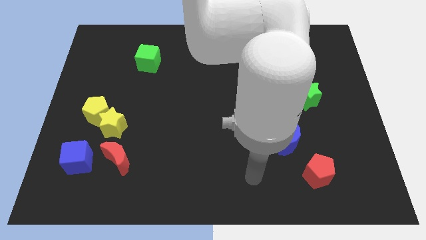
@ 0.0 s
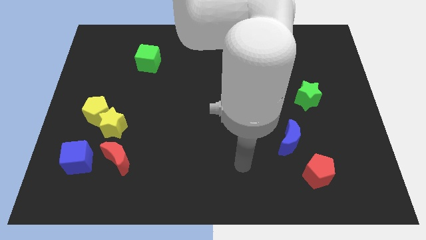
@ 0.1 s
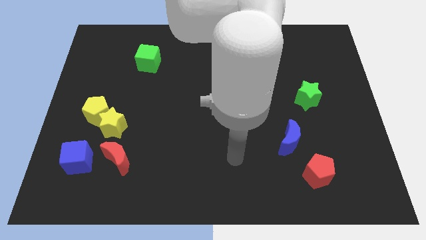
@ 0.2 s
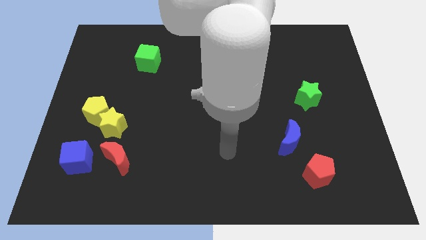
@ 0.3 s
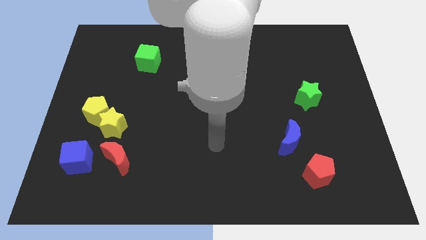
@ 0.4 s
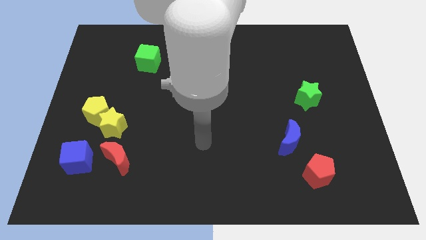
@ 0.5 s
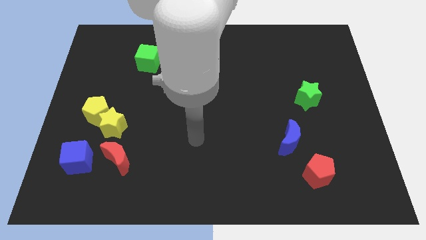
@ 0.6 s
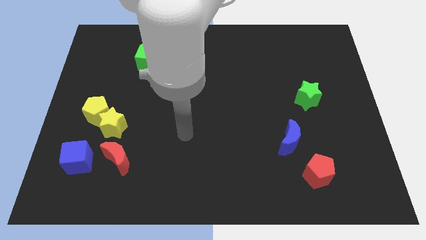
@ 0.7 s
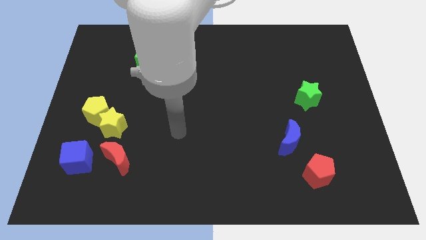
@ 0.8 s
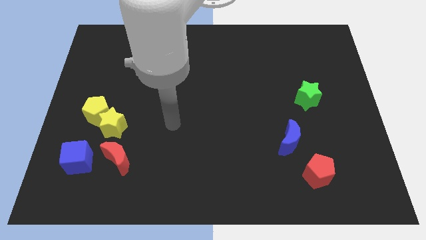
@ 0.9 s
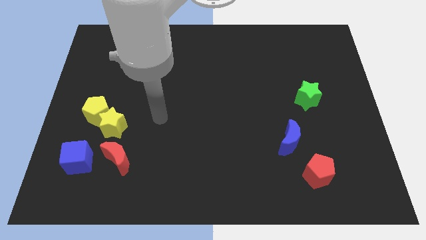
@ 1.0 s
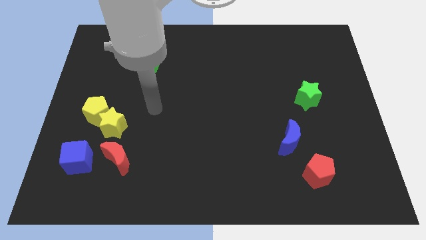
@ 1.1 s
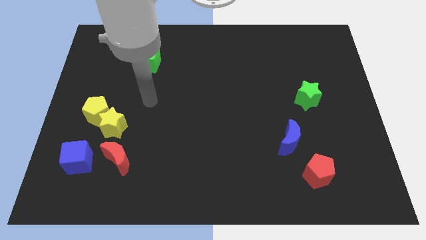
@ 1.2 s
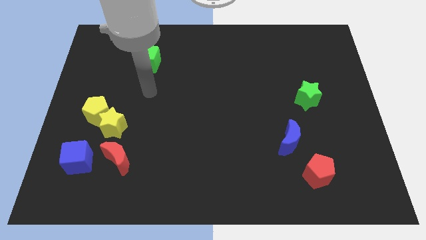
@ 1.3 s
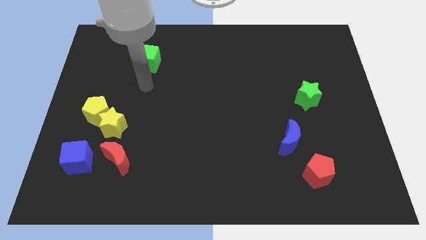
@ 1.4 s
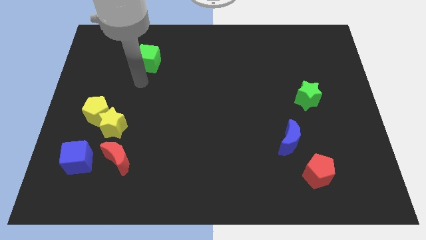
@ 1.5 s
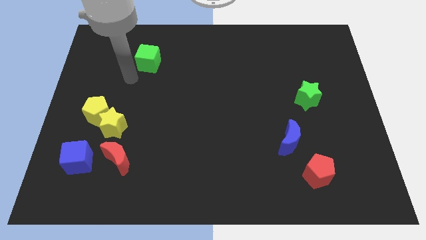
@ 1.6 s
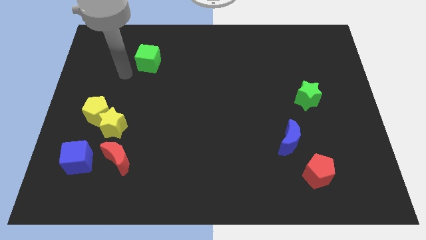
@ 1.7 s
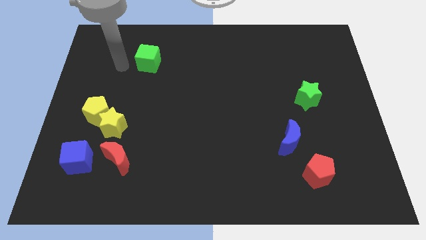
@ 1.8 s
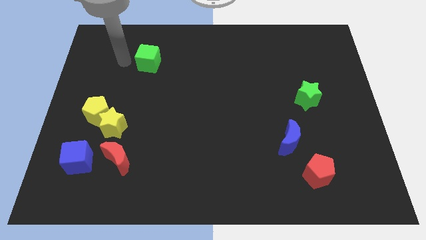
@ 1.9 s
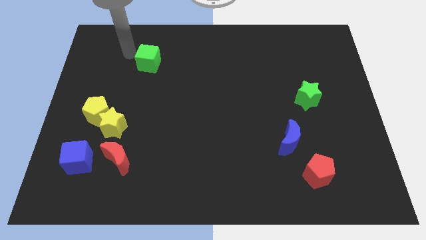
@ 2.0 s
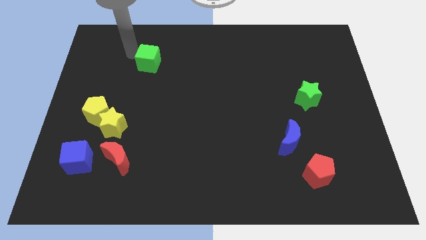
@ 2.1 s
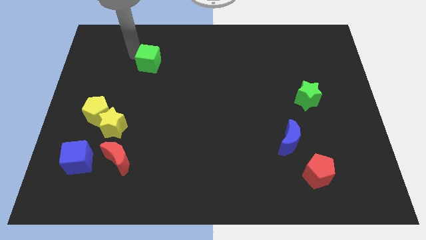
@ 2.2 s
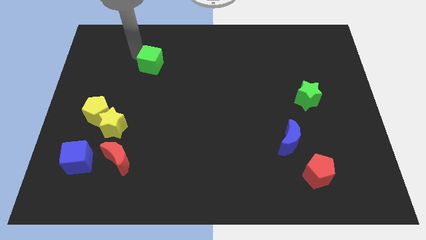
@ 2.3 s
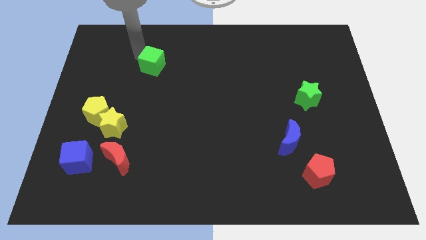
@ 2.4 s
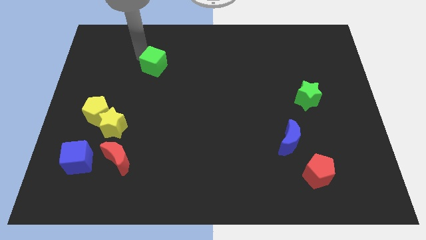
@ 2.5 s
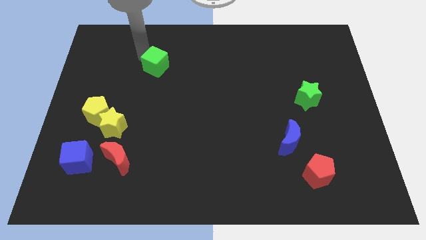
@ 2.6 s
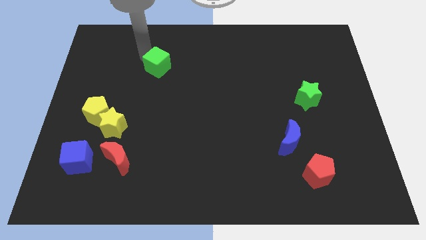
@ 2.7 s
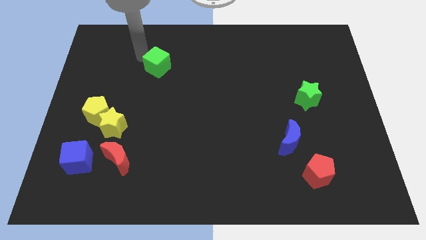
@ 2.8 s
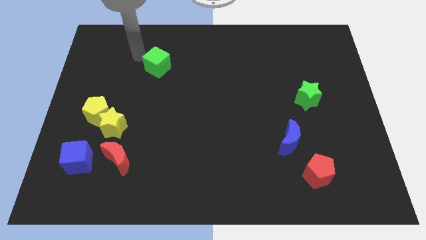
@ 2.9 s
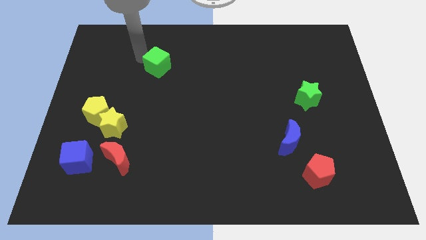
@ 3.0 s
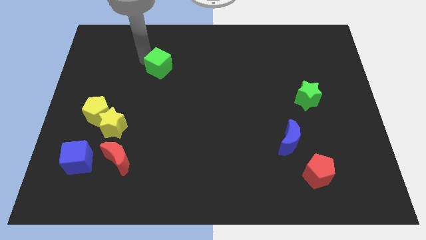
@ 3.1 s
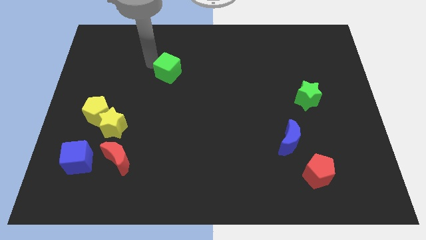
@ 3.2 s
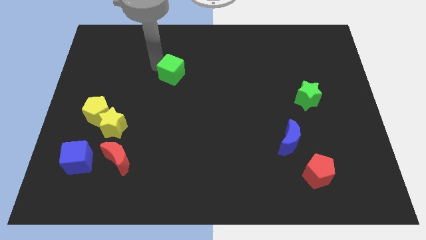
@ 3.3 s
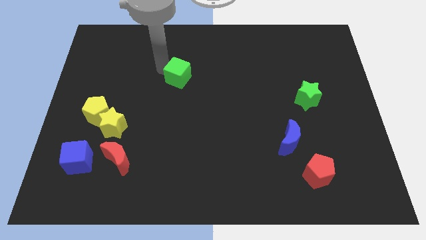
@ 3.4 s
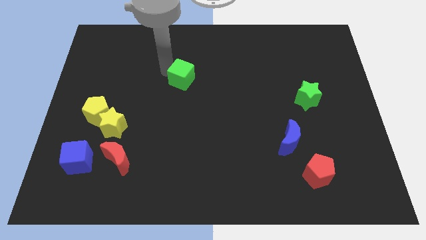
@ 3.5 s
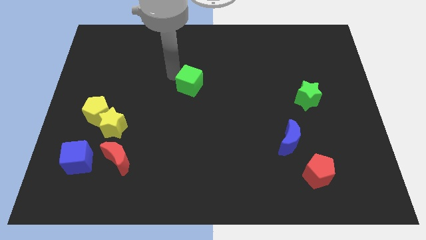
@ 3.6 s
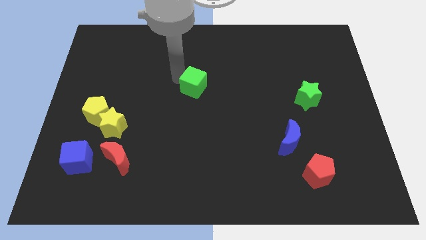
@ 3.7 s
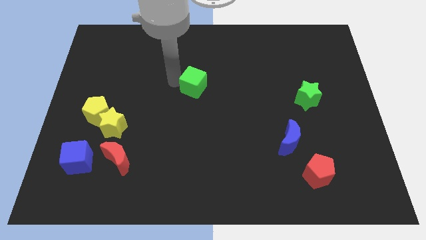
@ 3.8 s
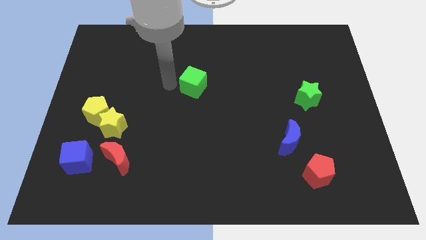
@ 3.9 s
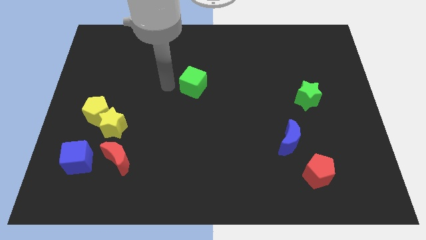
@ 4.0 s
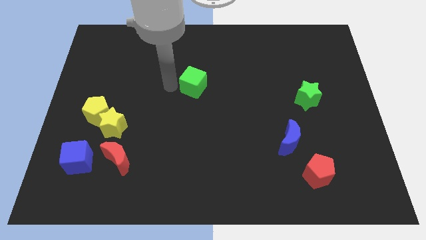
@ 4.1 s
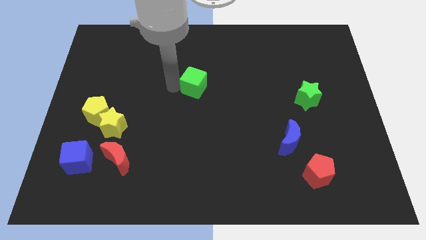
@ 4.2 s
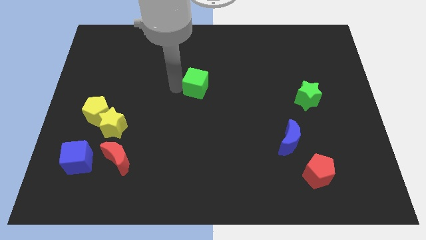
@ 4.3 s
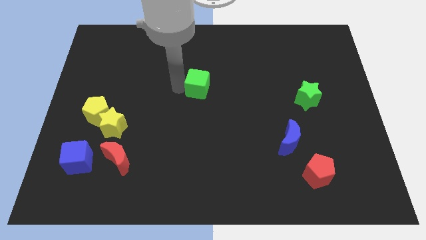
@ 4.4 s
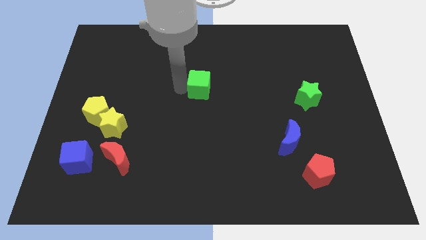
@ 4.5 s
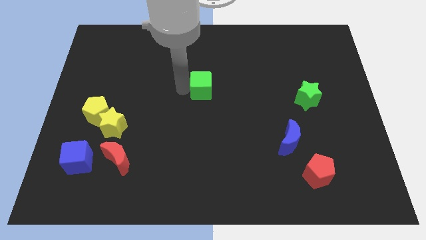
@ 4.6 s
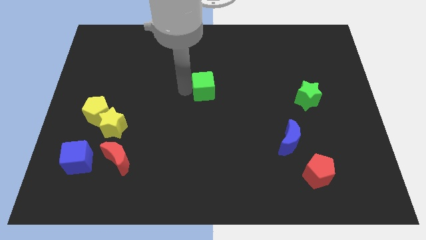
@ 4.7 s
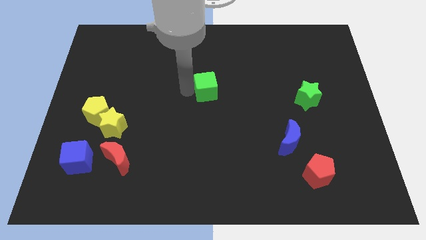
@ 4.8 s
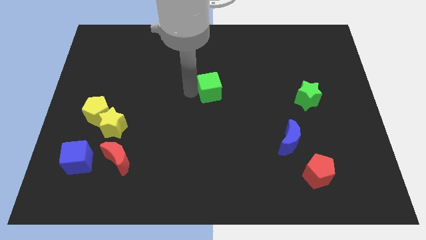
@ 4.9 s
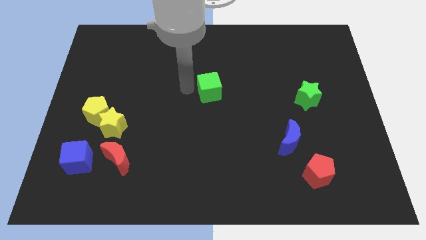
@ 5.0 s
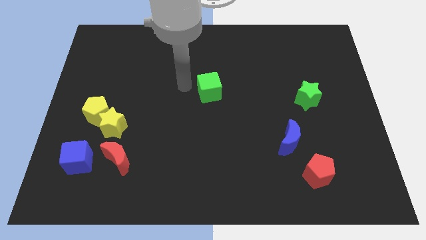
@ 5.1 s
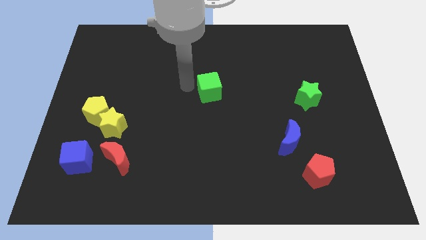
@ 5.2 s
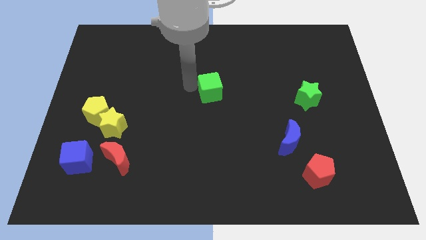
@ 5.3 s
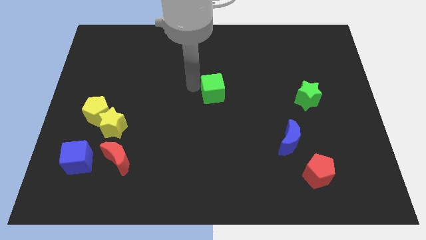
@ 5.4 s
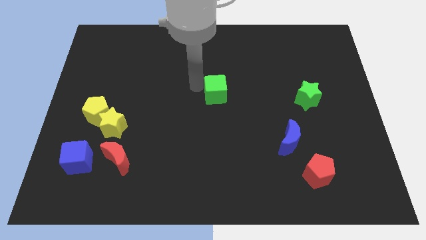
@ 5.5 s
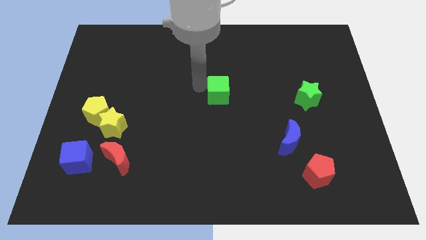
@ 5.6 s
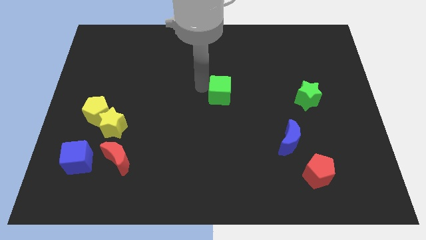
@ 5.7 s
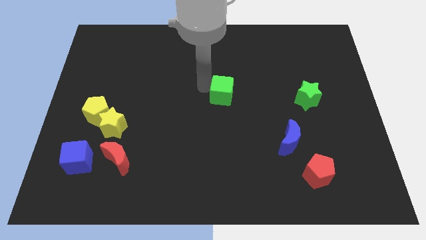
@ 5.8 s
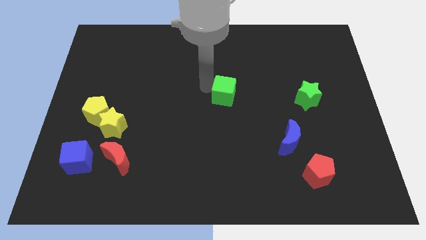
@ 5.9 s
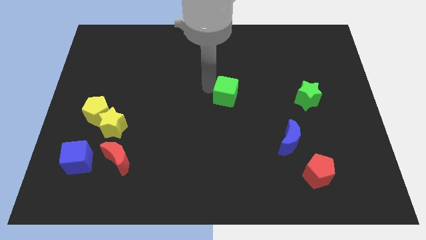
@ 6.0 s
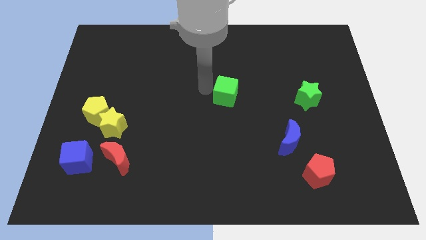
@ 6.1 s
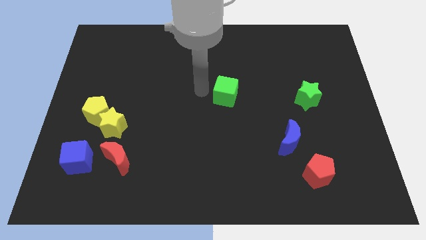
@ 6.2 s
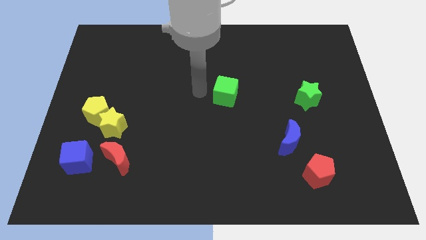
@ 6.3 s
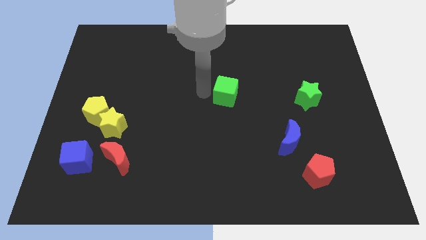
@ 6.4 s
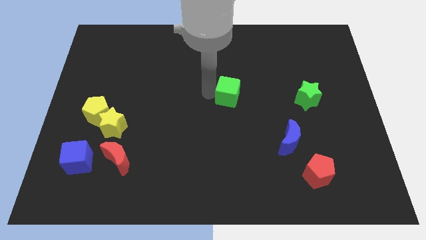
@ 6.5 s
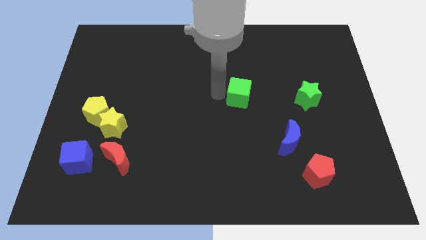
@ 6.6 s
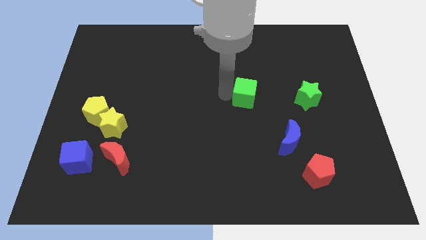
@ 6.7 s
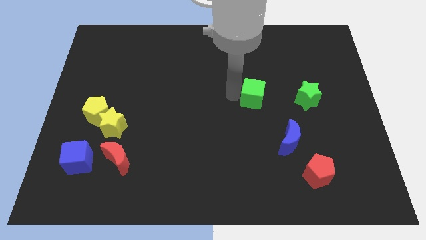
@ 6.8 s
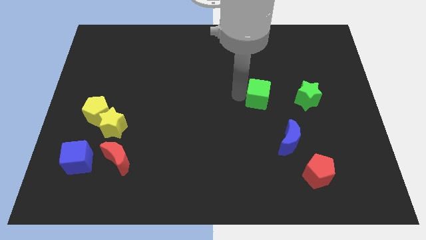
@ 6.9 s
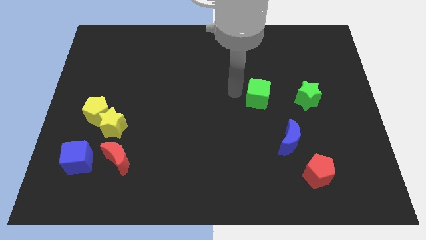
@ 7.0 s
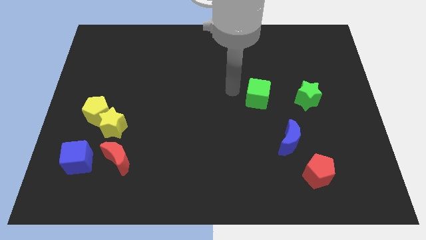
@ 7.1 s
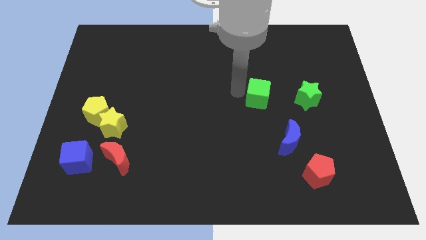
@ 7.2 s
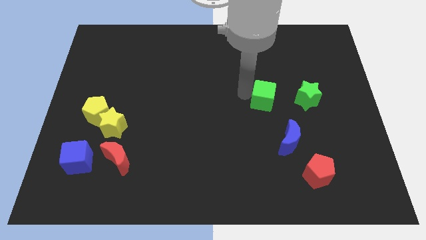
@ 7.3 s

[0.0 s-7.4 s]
slide the green cube to the top side of the blue moon
